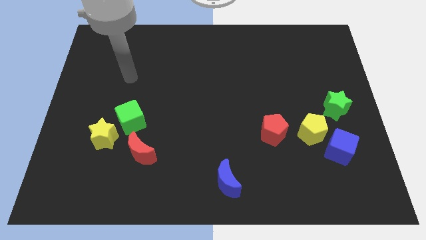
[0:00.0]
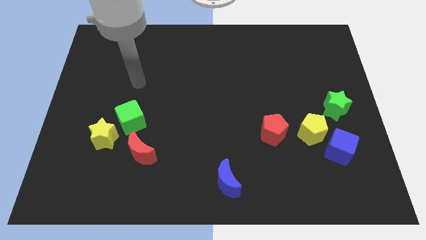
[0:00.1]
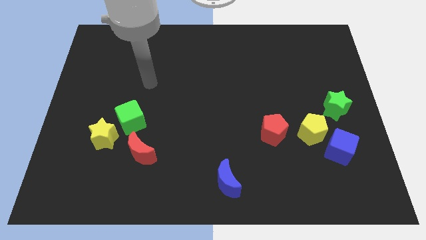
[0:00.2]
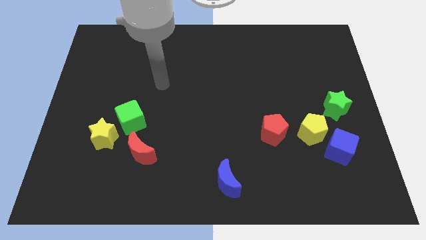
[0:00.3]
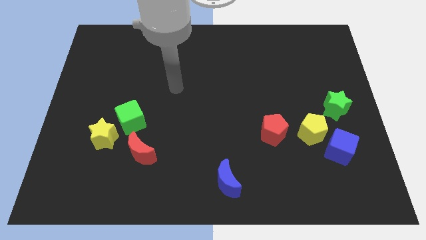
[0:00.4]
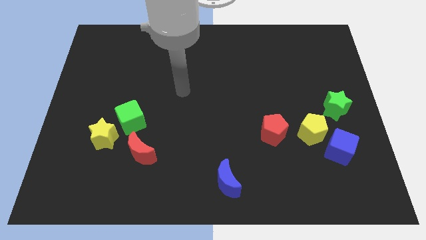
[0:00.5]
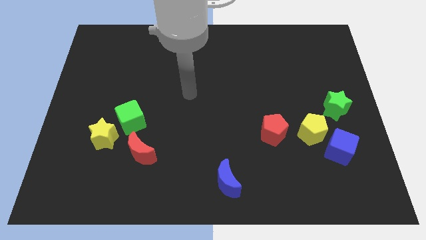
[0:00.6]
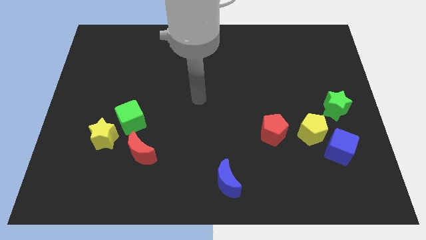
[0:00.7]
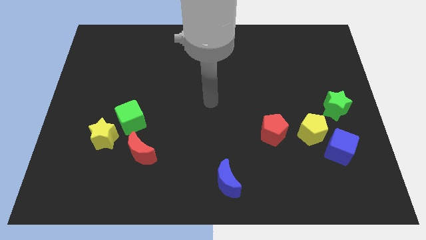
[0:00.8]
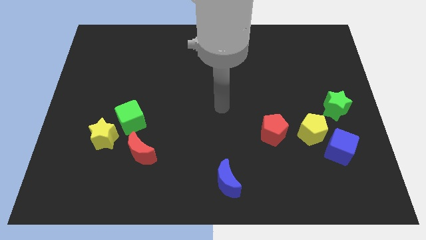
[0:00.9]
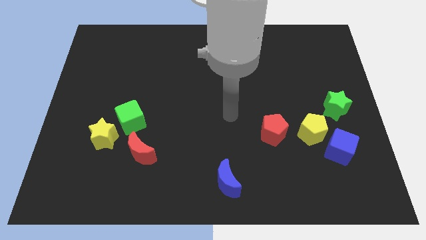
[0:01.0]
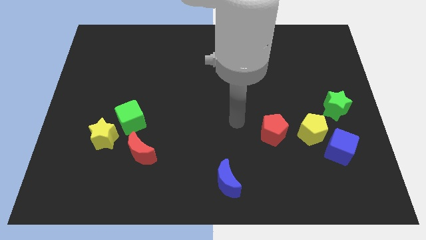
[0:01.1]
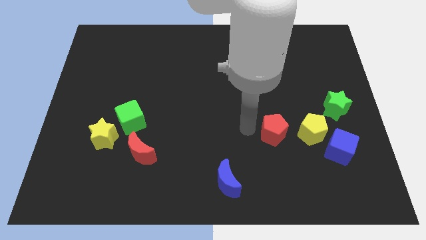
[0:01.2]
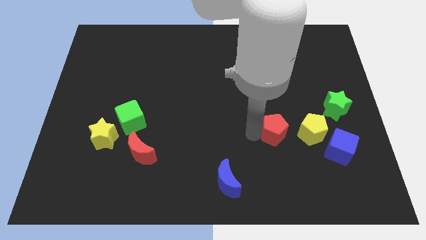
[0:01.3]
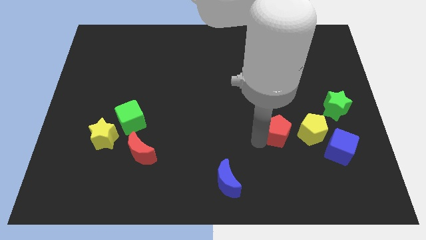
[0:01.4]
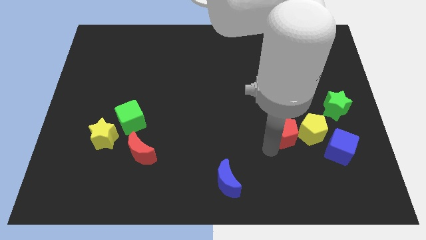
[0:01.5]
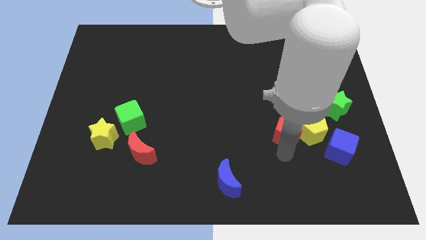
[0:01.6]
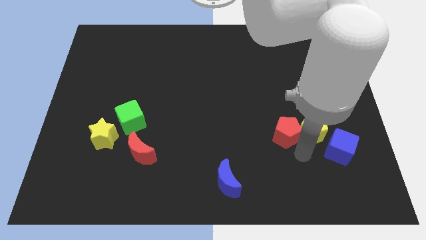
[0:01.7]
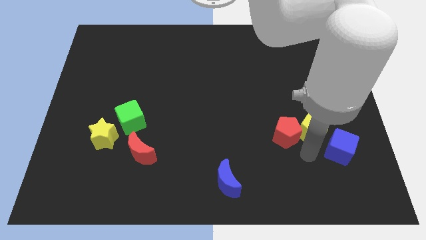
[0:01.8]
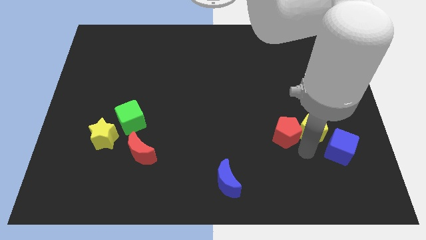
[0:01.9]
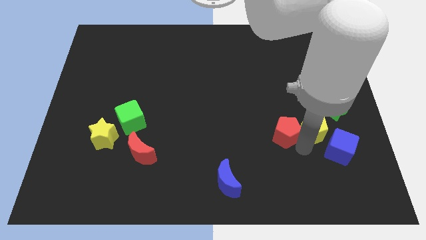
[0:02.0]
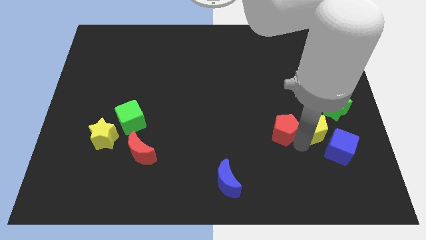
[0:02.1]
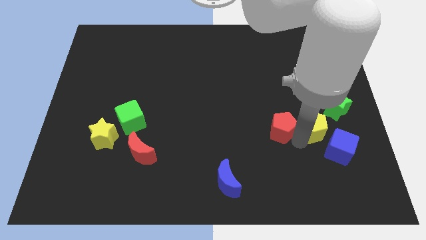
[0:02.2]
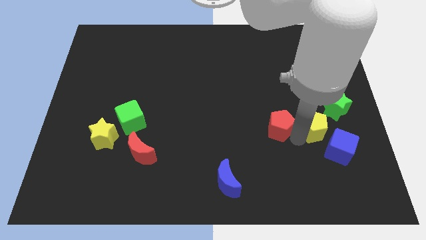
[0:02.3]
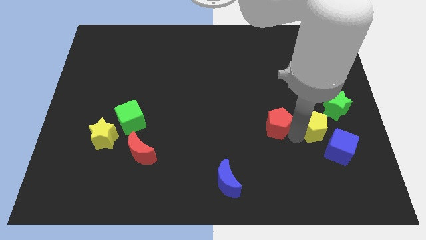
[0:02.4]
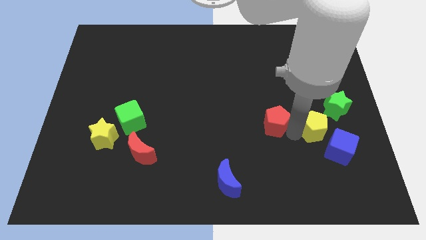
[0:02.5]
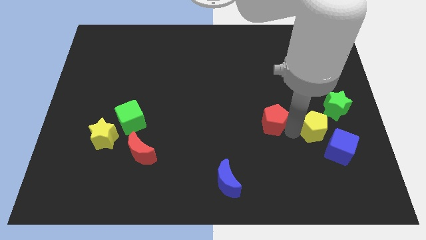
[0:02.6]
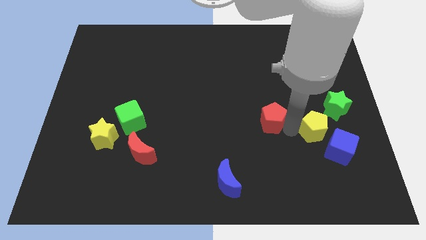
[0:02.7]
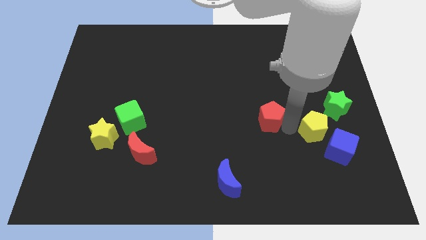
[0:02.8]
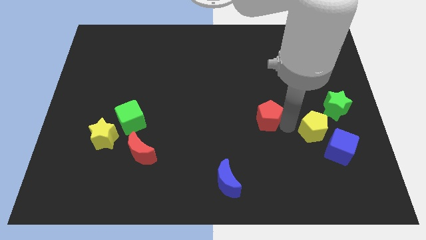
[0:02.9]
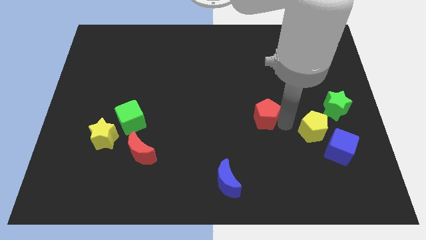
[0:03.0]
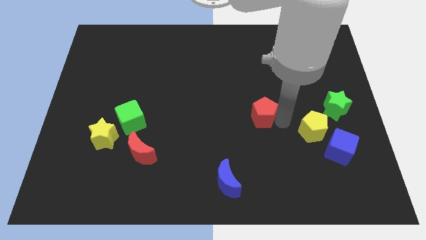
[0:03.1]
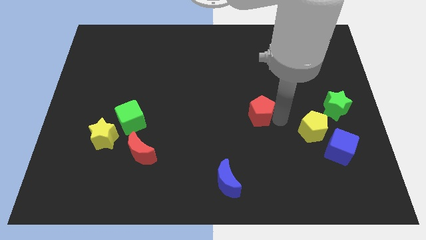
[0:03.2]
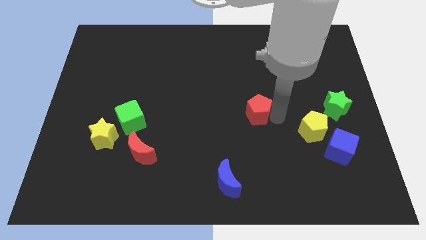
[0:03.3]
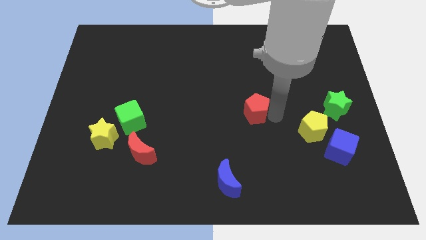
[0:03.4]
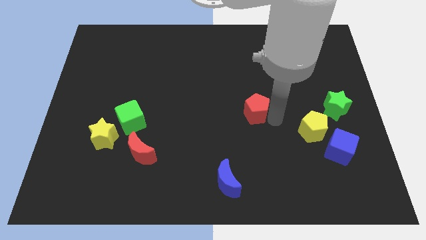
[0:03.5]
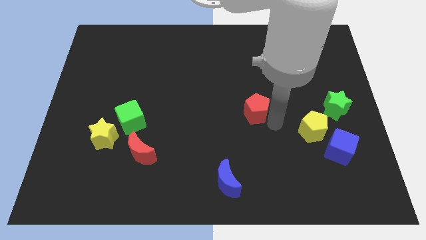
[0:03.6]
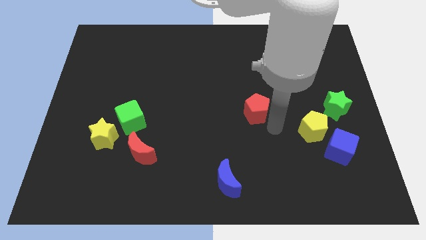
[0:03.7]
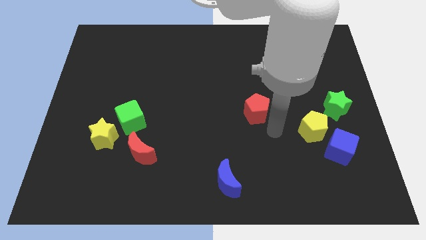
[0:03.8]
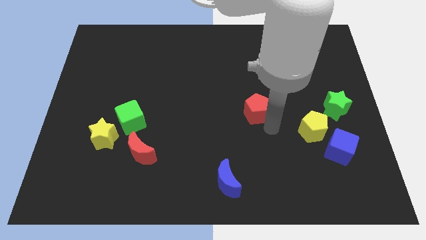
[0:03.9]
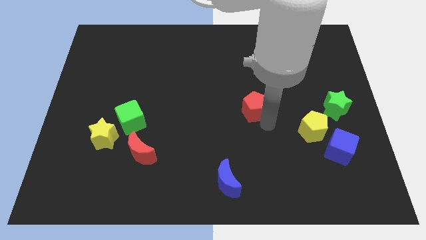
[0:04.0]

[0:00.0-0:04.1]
slide the red pentagon a little bit diagonally upwards and left

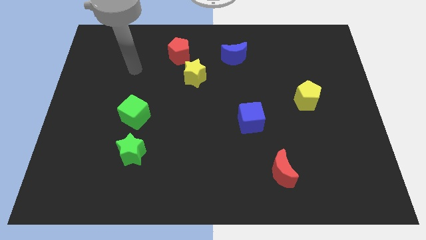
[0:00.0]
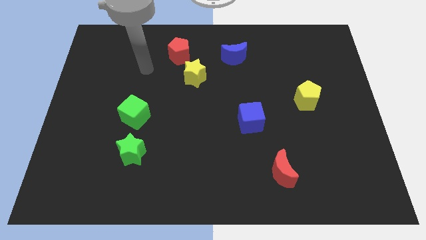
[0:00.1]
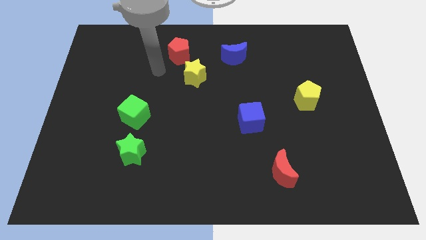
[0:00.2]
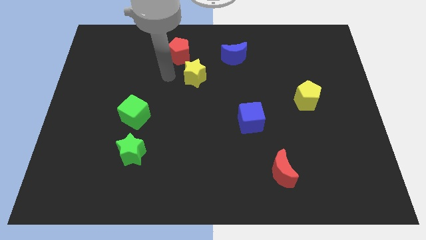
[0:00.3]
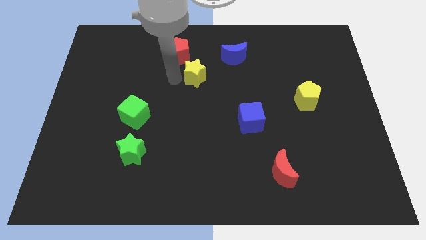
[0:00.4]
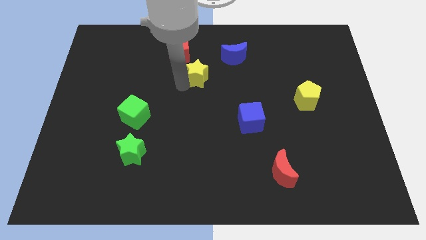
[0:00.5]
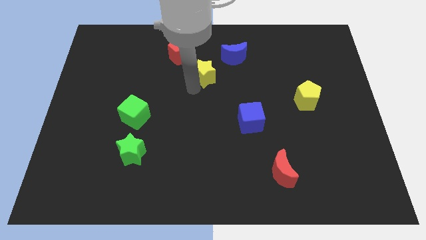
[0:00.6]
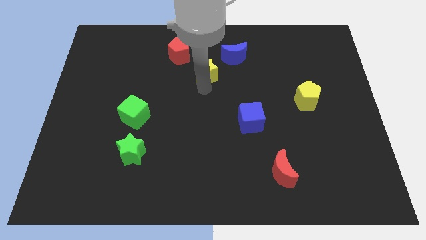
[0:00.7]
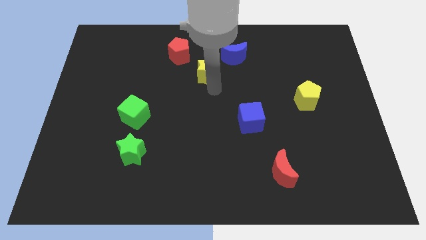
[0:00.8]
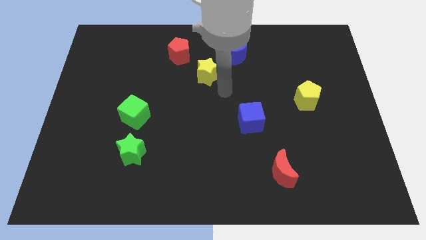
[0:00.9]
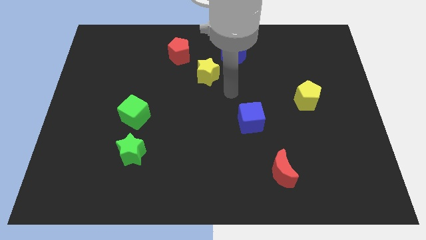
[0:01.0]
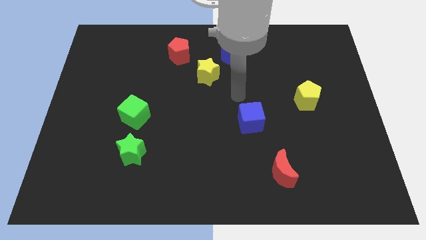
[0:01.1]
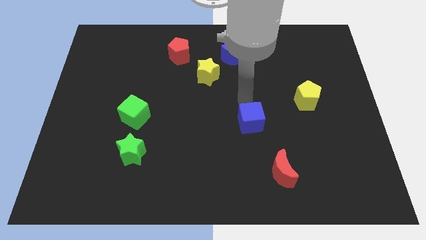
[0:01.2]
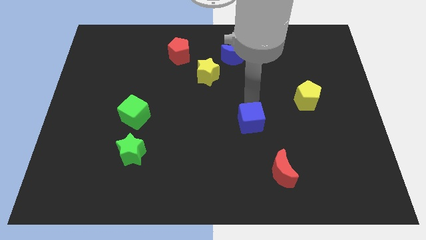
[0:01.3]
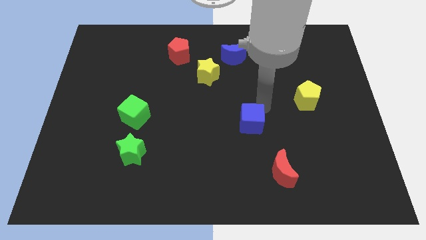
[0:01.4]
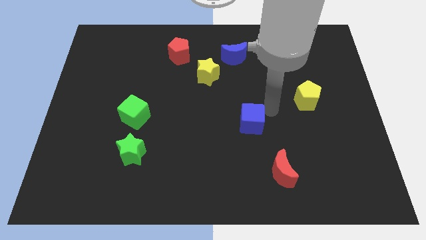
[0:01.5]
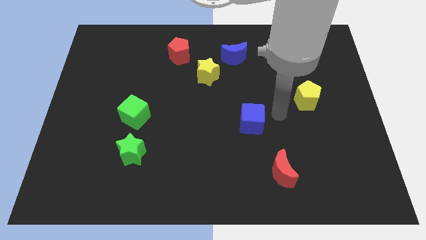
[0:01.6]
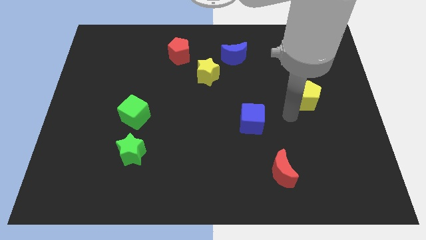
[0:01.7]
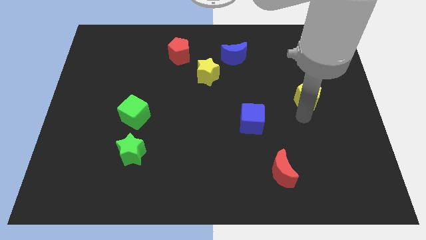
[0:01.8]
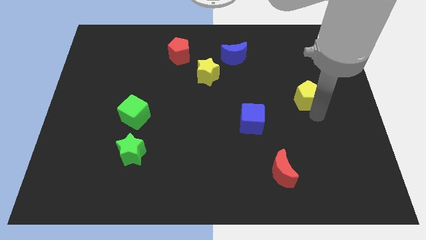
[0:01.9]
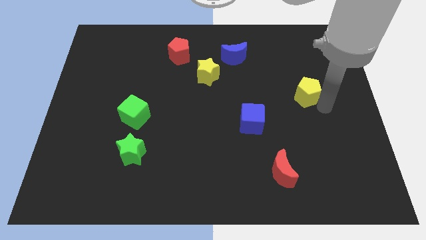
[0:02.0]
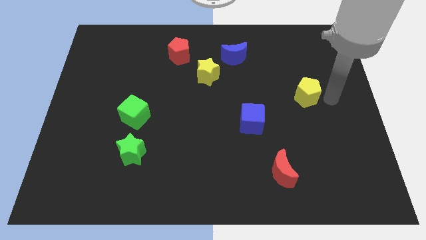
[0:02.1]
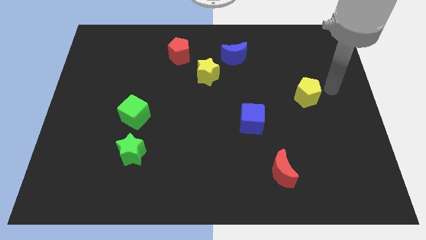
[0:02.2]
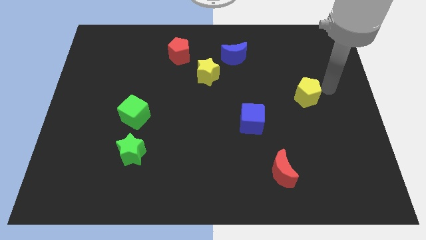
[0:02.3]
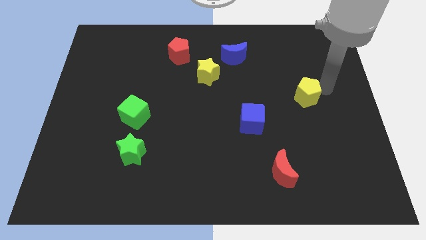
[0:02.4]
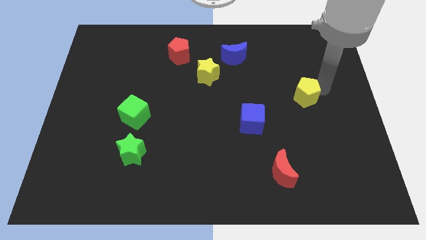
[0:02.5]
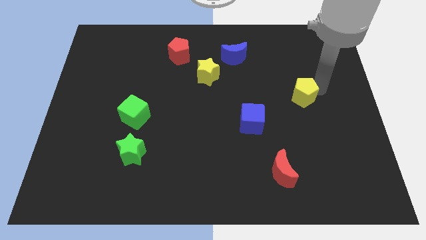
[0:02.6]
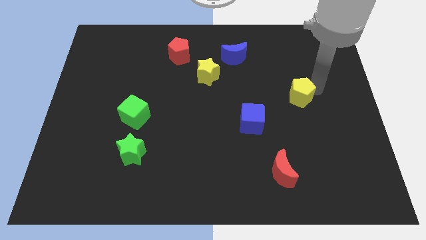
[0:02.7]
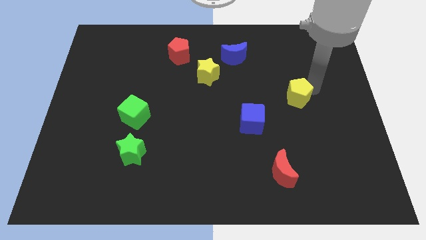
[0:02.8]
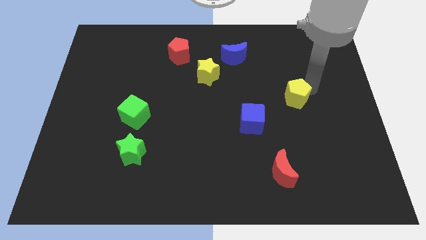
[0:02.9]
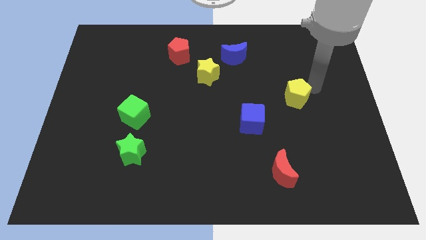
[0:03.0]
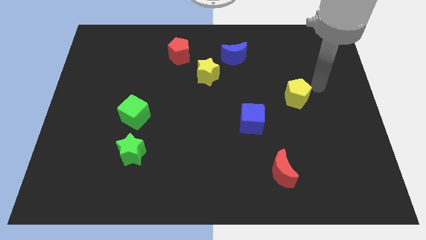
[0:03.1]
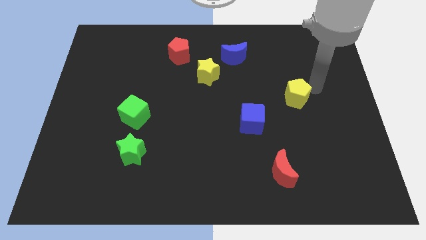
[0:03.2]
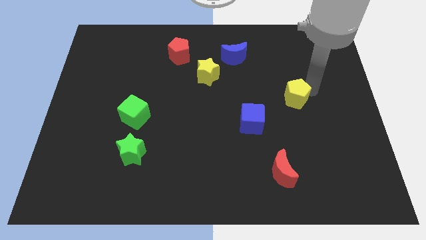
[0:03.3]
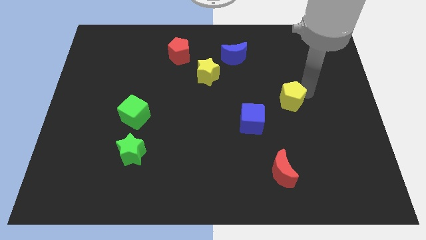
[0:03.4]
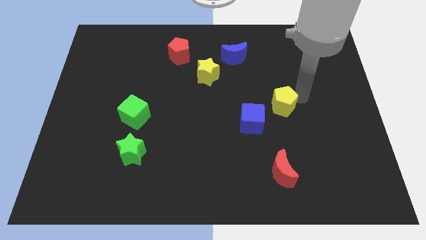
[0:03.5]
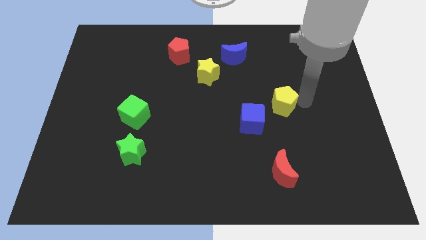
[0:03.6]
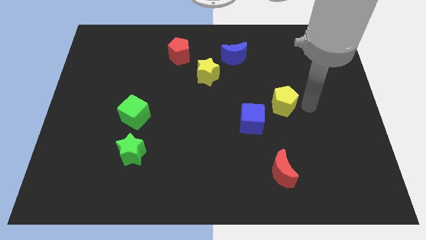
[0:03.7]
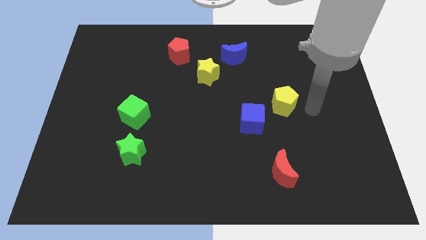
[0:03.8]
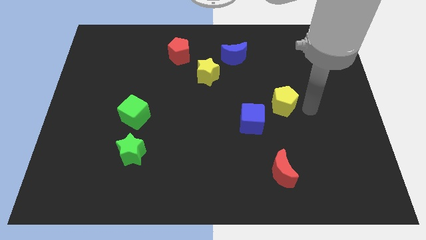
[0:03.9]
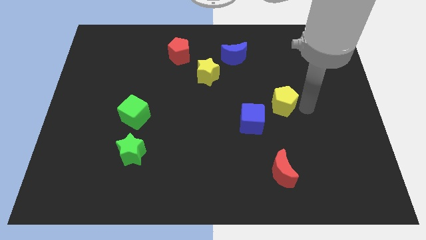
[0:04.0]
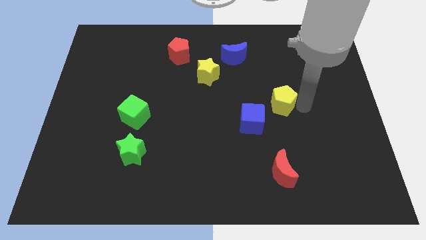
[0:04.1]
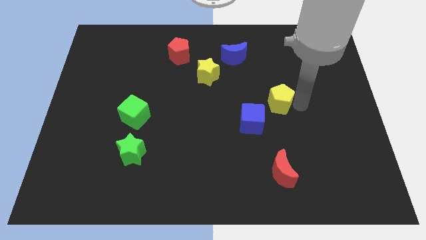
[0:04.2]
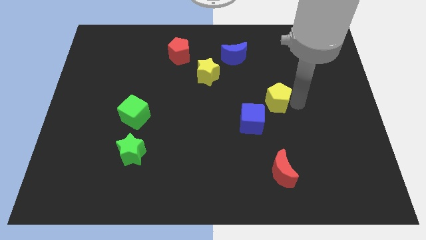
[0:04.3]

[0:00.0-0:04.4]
slightly slide the yellow pentagon to the left
